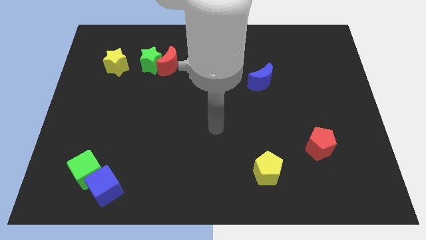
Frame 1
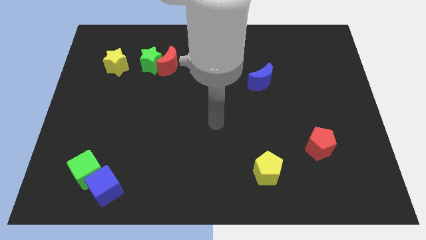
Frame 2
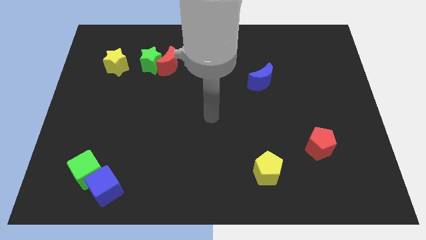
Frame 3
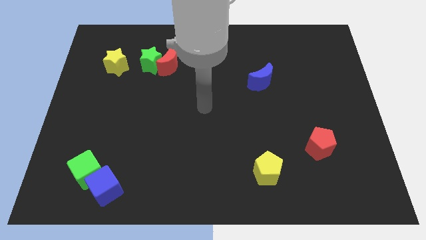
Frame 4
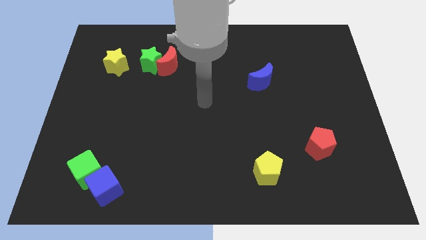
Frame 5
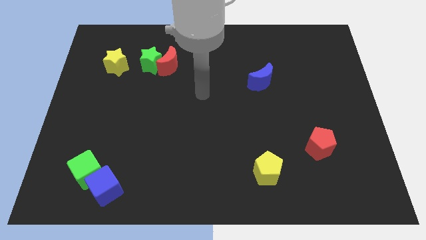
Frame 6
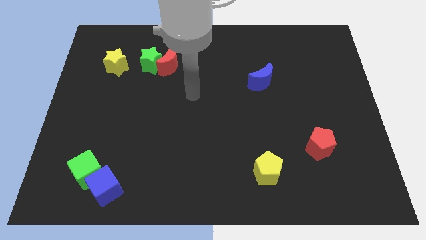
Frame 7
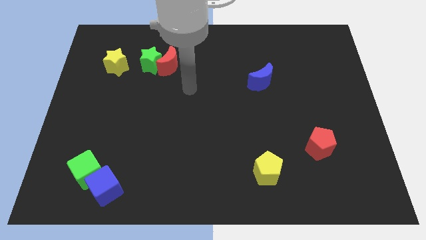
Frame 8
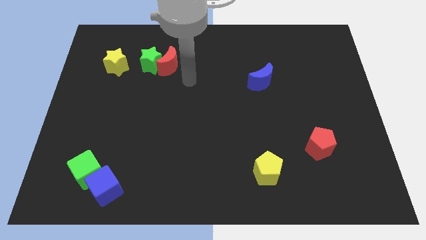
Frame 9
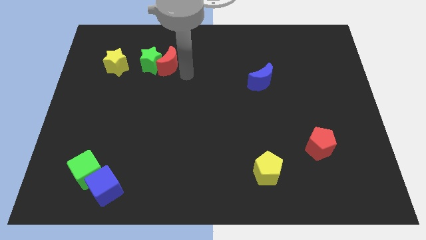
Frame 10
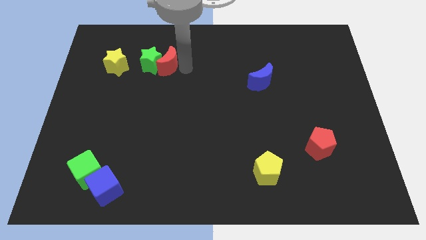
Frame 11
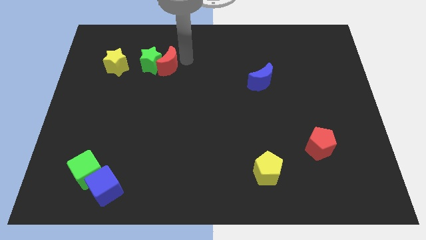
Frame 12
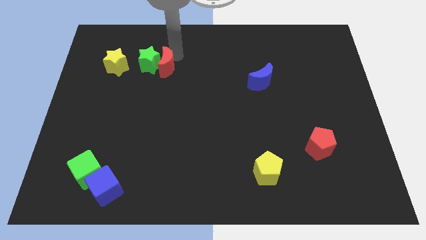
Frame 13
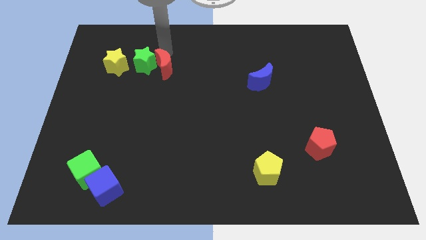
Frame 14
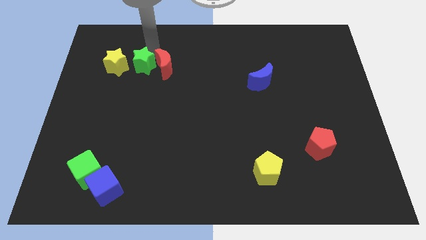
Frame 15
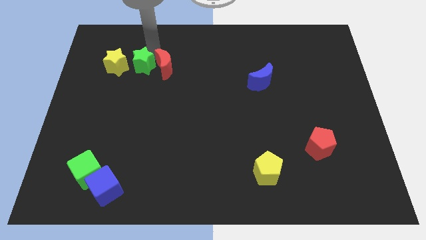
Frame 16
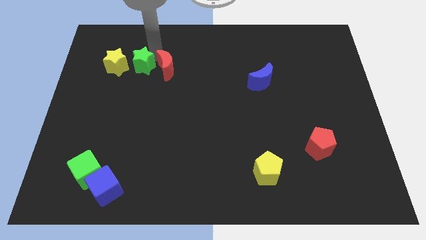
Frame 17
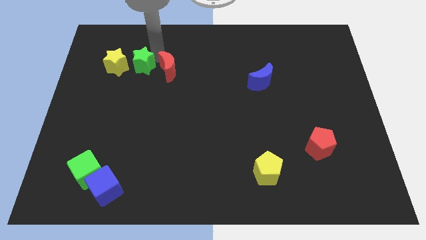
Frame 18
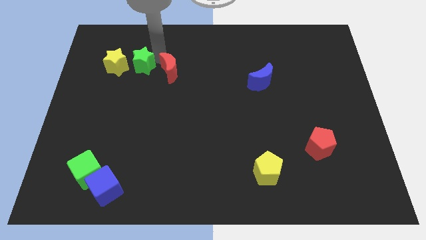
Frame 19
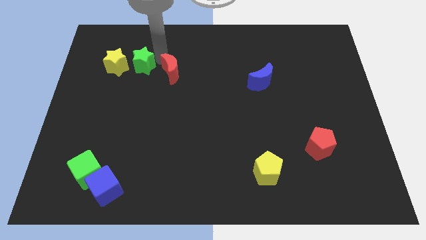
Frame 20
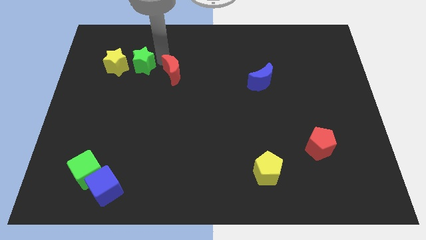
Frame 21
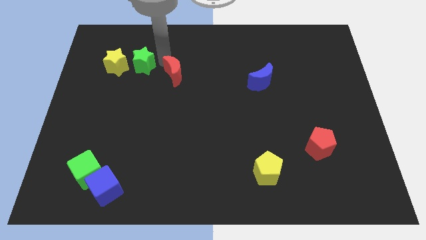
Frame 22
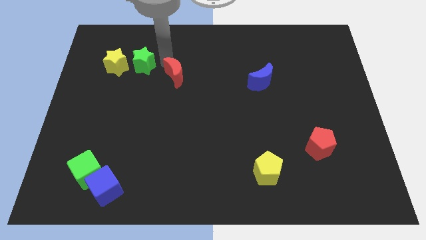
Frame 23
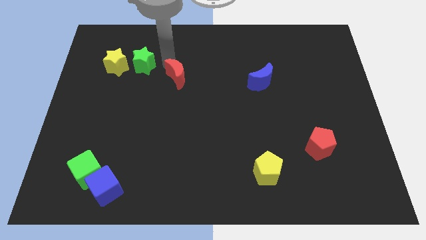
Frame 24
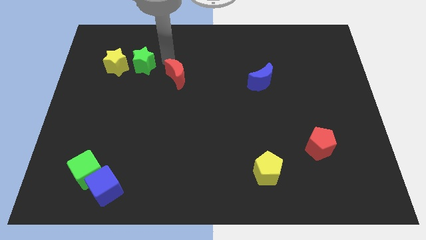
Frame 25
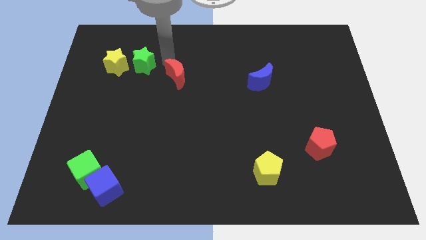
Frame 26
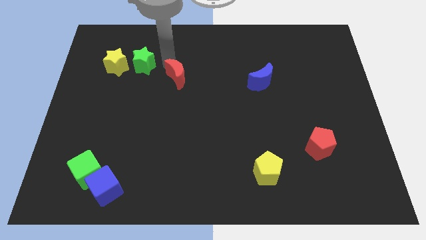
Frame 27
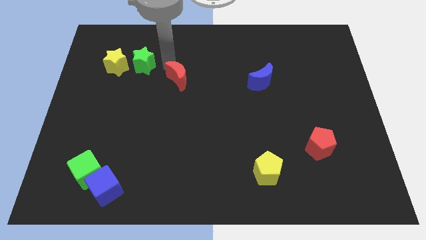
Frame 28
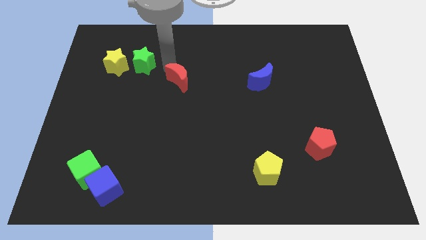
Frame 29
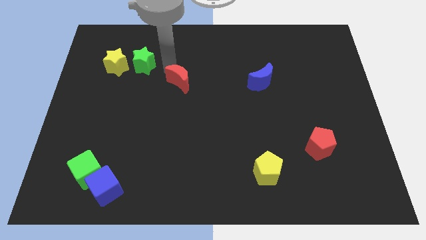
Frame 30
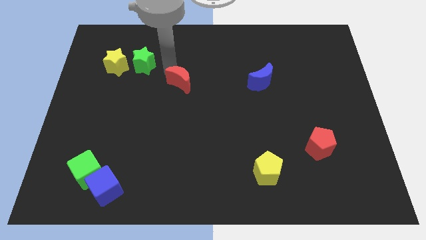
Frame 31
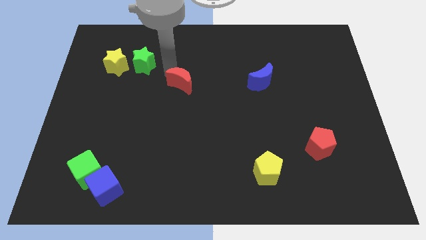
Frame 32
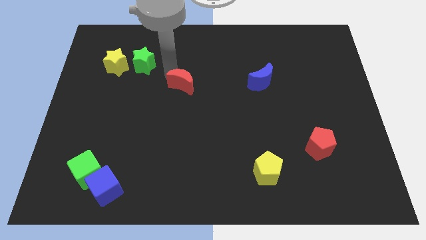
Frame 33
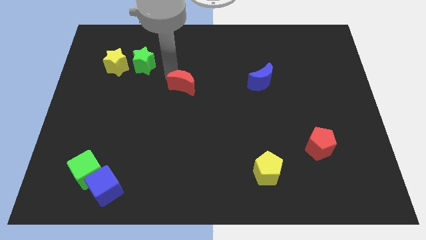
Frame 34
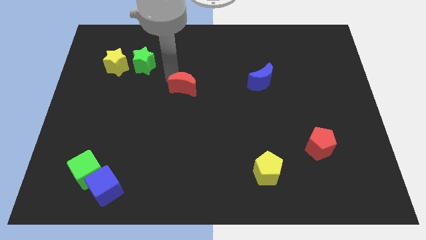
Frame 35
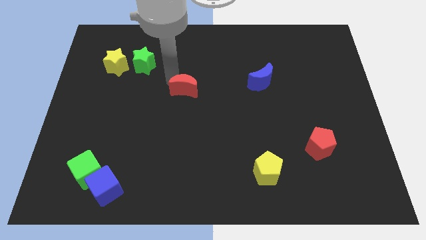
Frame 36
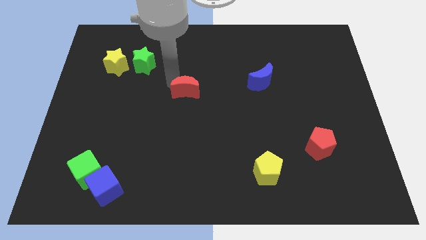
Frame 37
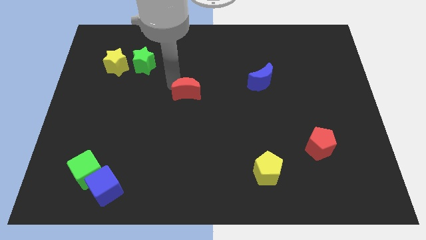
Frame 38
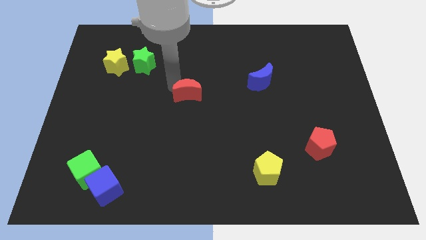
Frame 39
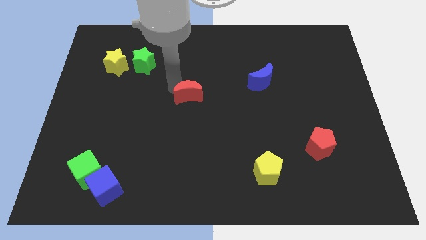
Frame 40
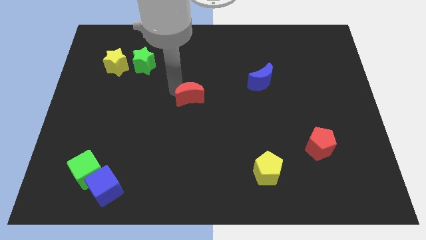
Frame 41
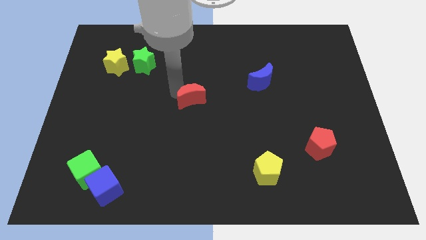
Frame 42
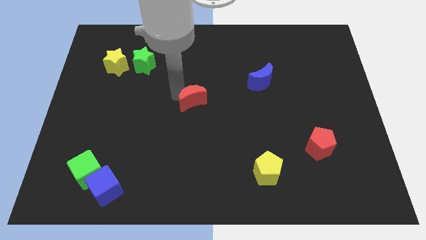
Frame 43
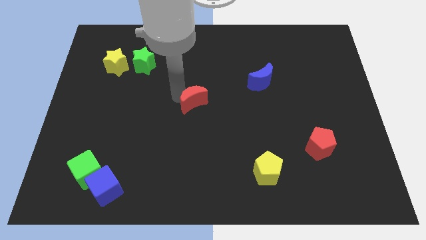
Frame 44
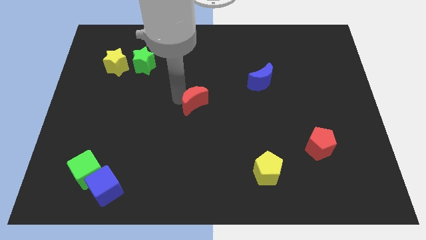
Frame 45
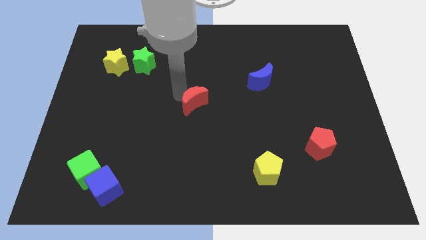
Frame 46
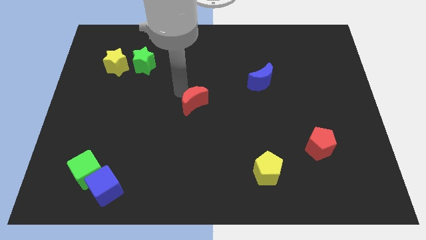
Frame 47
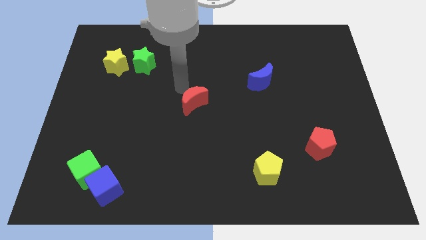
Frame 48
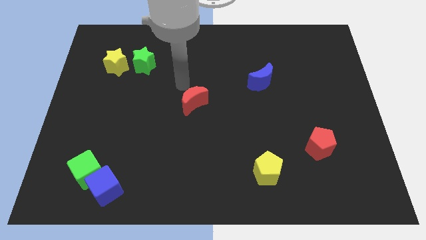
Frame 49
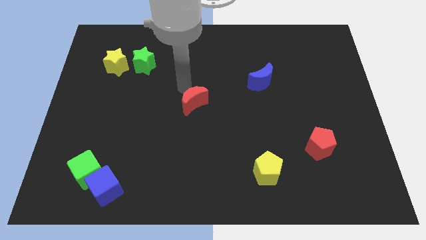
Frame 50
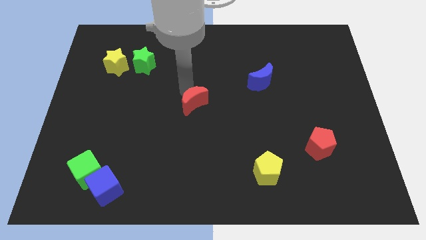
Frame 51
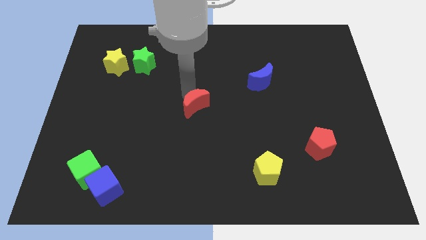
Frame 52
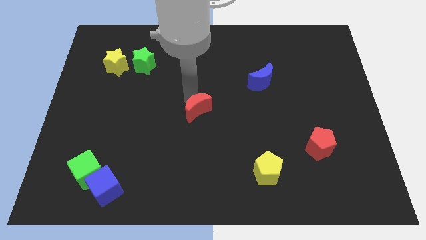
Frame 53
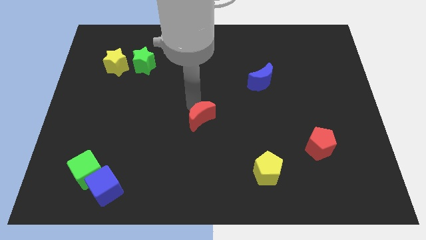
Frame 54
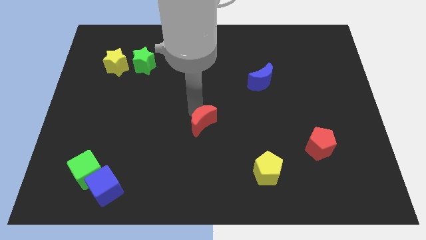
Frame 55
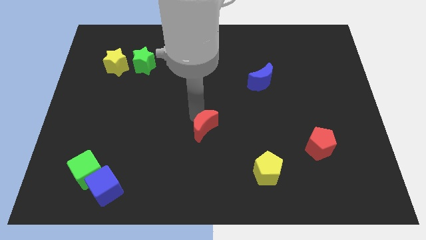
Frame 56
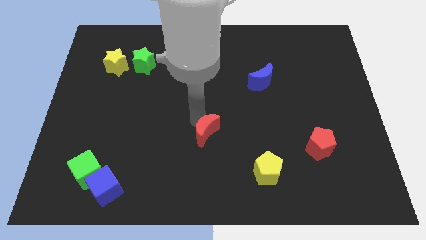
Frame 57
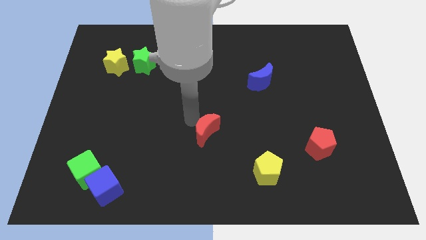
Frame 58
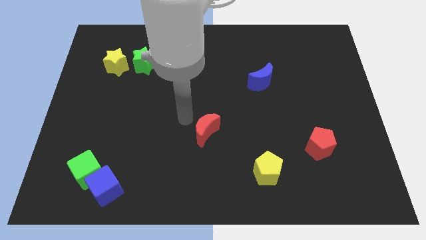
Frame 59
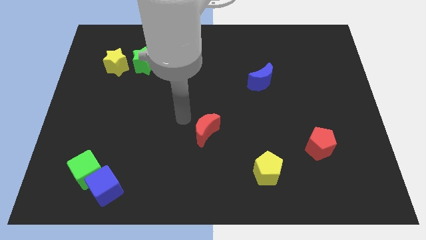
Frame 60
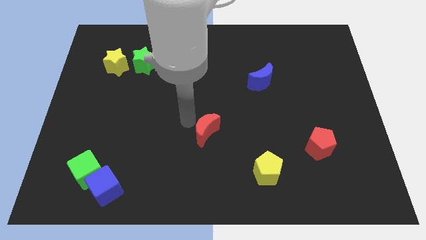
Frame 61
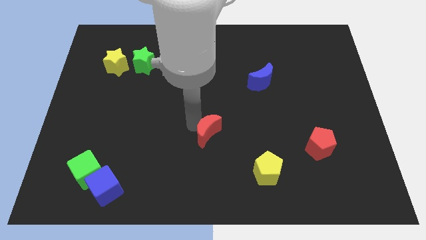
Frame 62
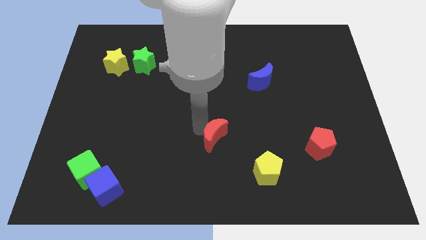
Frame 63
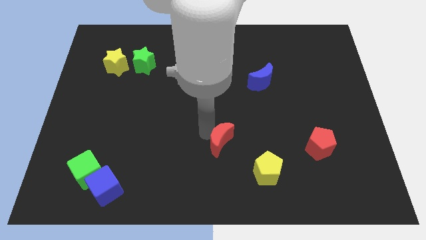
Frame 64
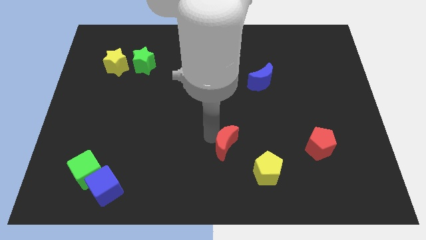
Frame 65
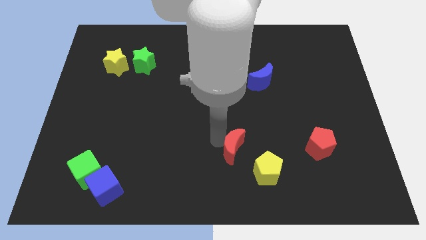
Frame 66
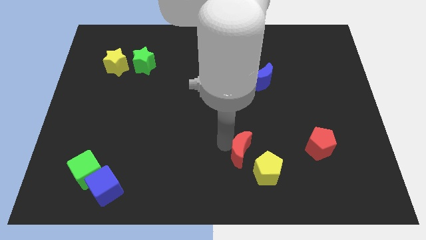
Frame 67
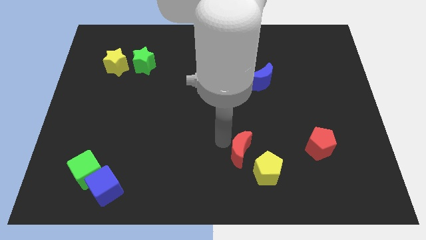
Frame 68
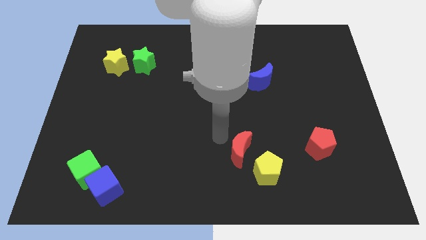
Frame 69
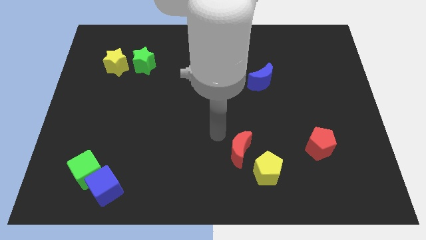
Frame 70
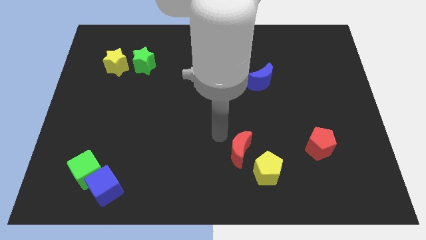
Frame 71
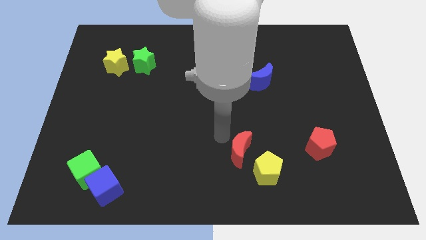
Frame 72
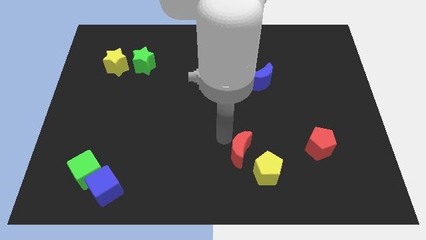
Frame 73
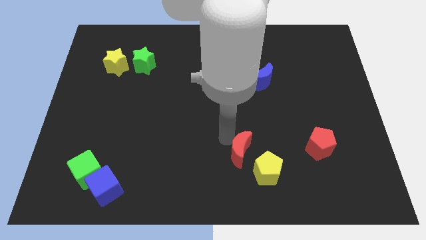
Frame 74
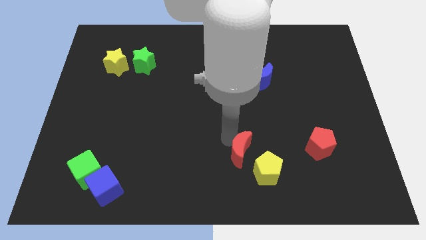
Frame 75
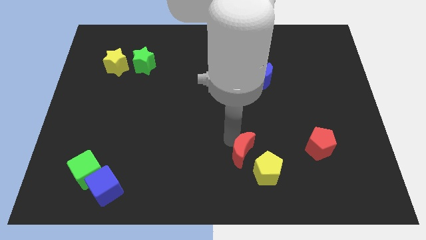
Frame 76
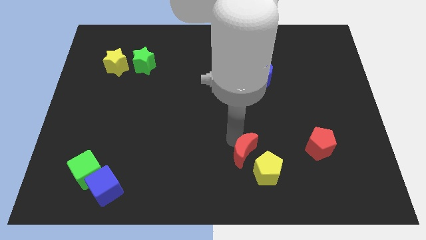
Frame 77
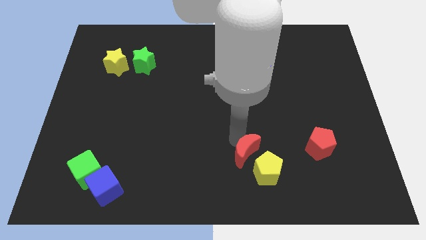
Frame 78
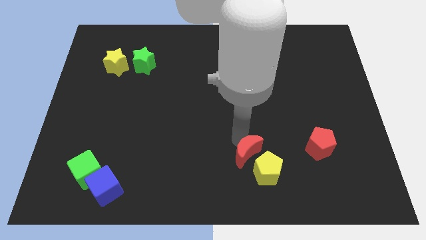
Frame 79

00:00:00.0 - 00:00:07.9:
put the red moon towards the yellow pentagon
